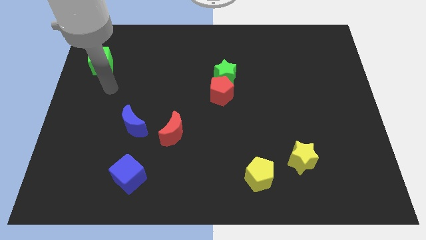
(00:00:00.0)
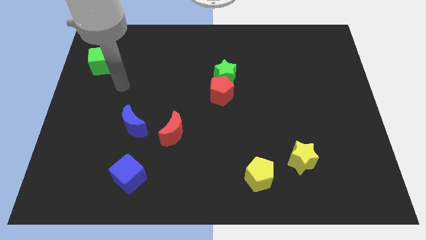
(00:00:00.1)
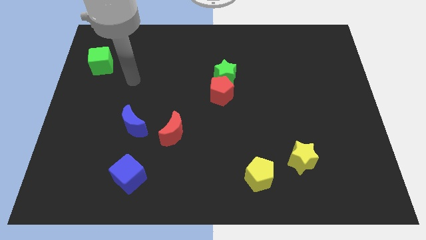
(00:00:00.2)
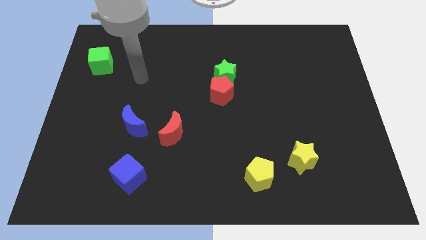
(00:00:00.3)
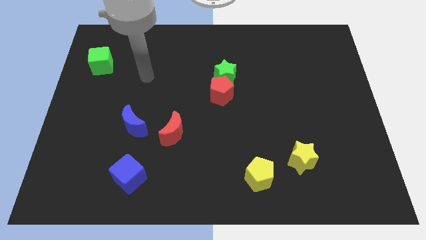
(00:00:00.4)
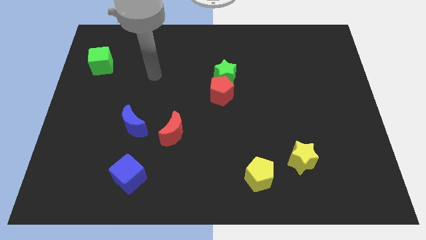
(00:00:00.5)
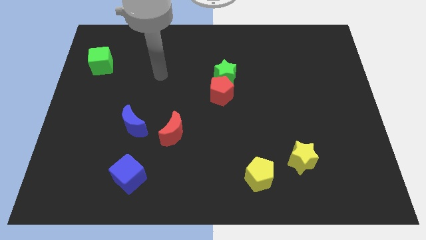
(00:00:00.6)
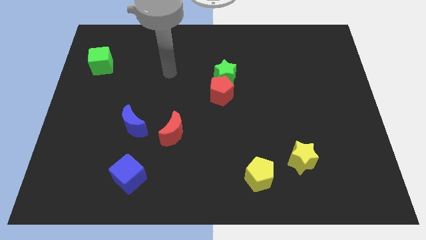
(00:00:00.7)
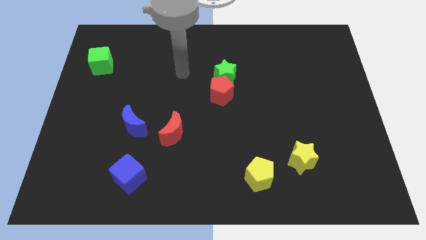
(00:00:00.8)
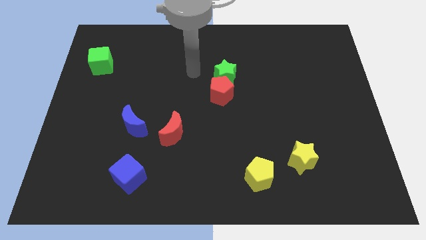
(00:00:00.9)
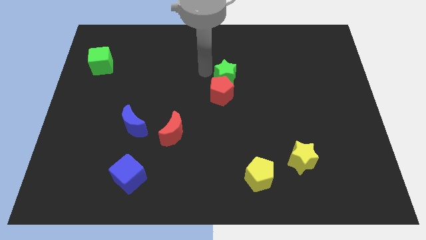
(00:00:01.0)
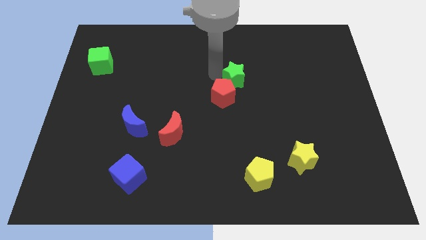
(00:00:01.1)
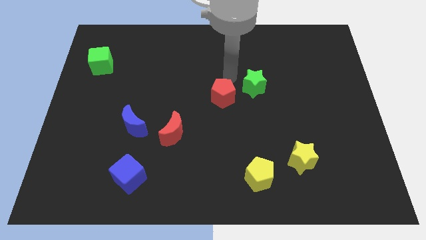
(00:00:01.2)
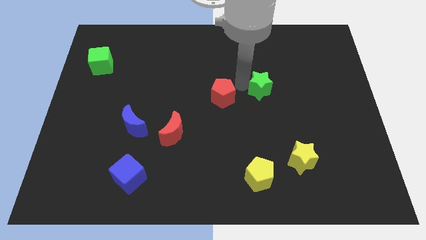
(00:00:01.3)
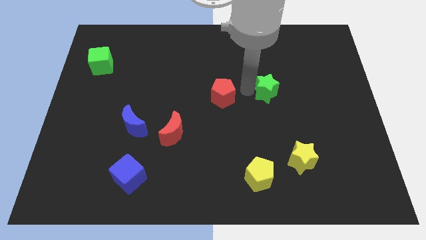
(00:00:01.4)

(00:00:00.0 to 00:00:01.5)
separate the red pentagon from the green star

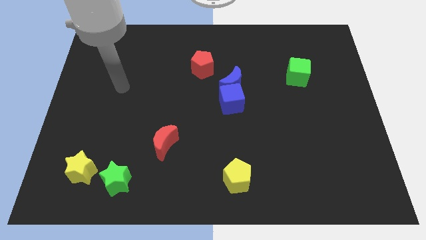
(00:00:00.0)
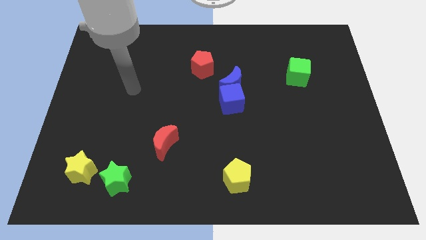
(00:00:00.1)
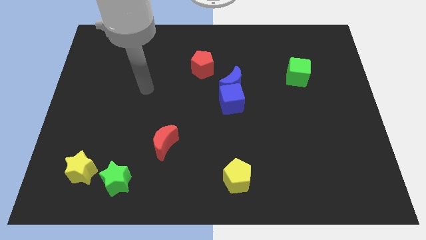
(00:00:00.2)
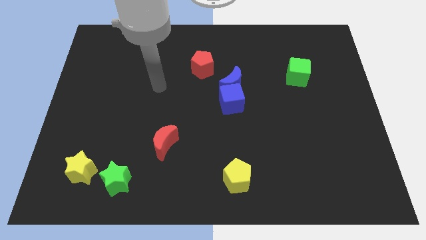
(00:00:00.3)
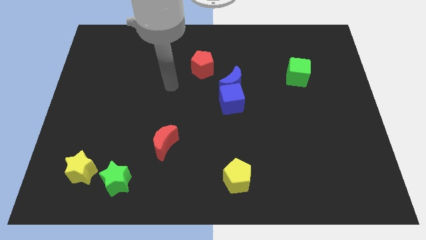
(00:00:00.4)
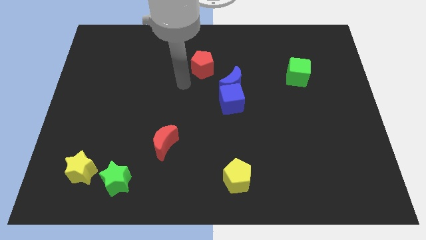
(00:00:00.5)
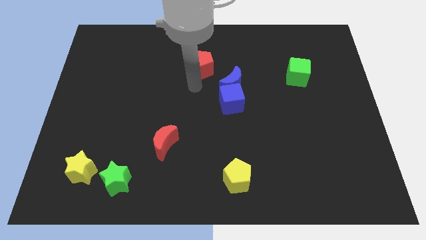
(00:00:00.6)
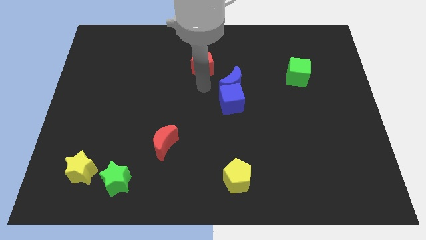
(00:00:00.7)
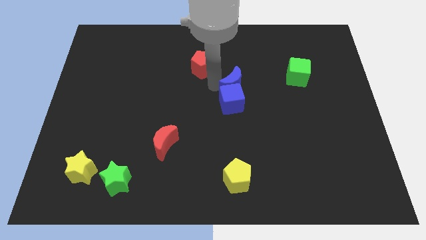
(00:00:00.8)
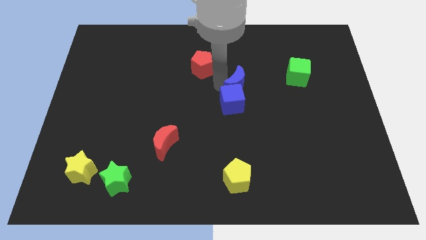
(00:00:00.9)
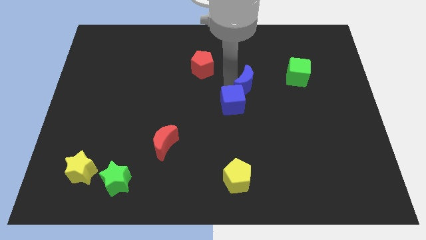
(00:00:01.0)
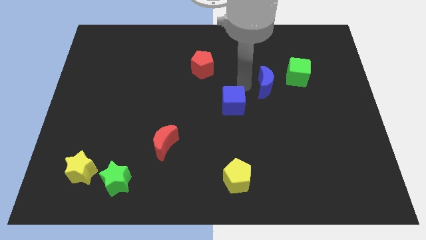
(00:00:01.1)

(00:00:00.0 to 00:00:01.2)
pull the blue cube apart from the blue moon

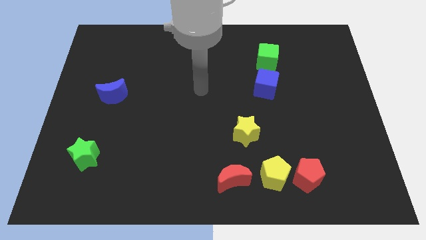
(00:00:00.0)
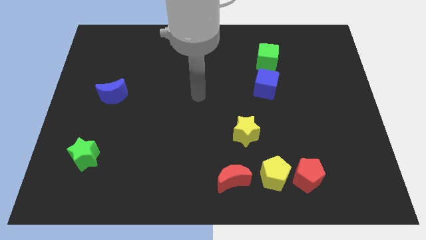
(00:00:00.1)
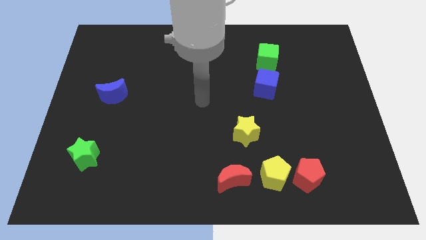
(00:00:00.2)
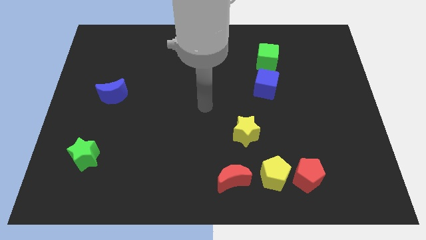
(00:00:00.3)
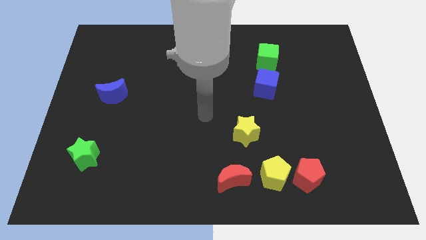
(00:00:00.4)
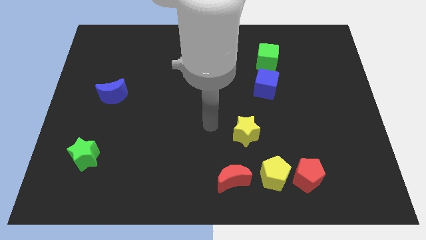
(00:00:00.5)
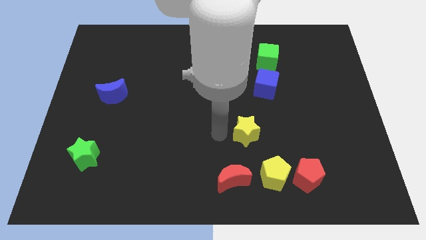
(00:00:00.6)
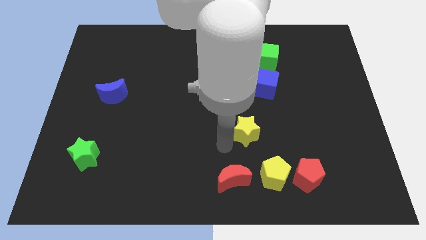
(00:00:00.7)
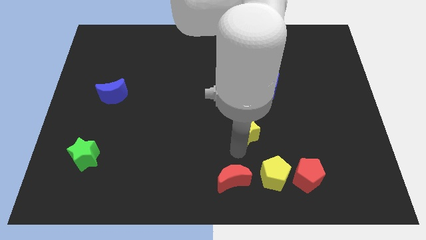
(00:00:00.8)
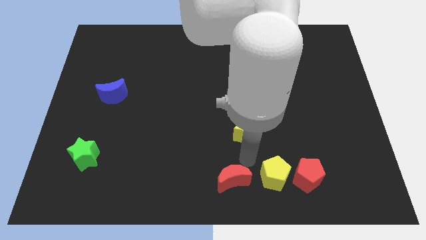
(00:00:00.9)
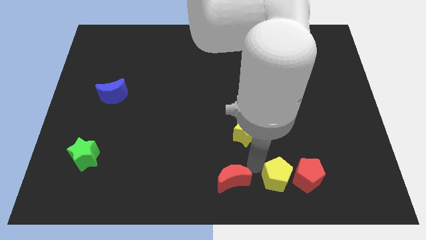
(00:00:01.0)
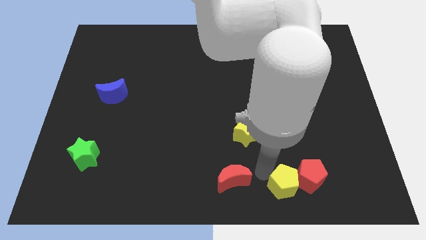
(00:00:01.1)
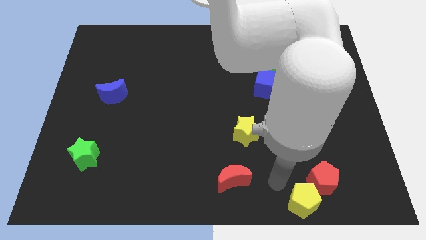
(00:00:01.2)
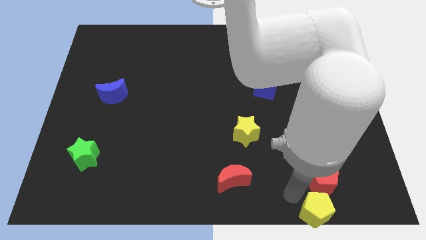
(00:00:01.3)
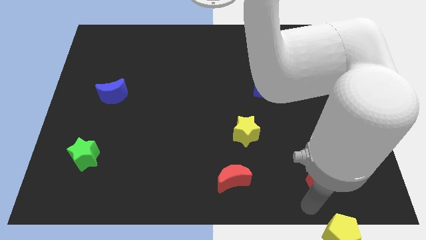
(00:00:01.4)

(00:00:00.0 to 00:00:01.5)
separate the red pentagon from the yellow pentagon

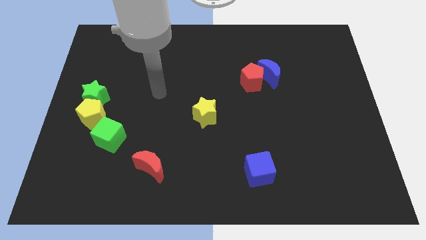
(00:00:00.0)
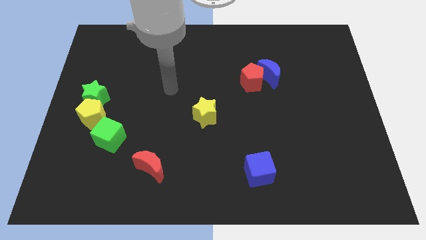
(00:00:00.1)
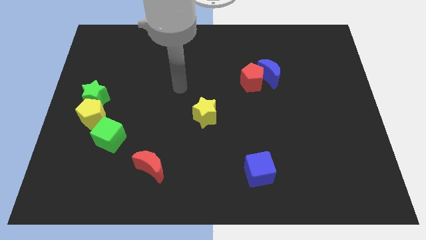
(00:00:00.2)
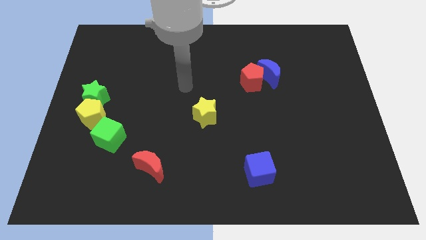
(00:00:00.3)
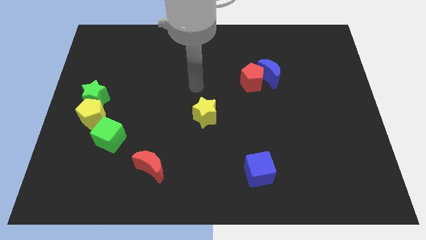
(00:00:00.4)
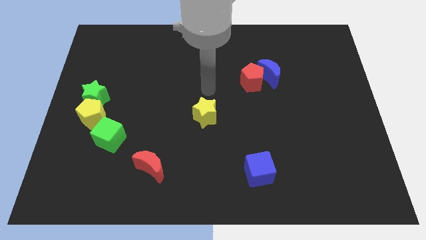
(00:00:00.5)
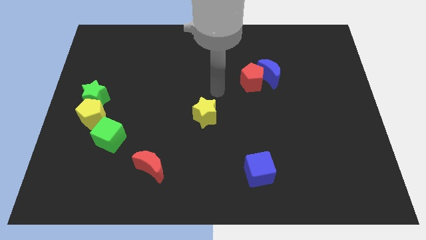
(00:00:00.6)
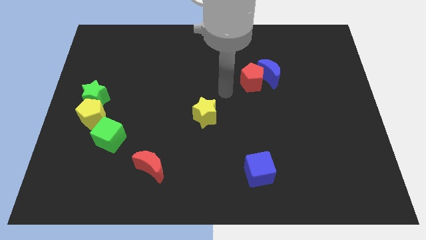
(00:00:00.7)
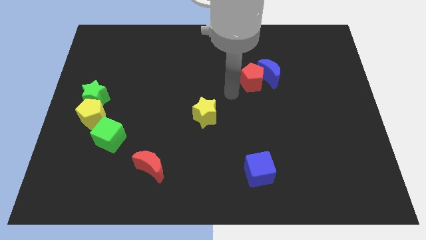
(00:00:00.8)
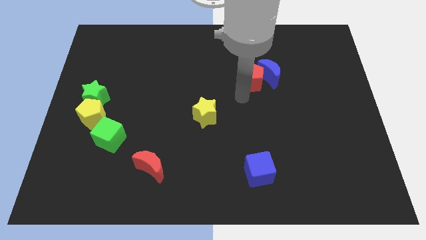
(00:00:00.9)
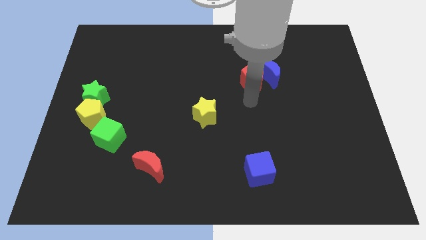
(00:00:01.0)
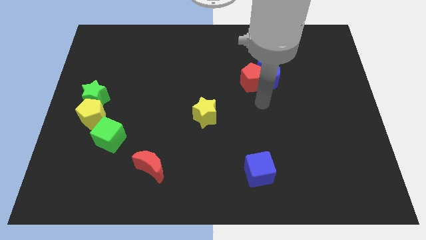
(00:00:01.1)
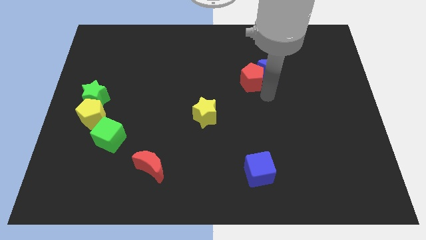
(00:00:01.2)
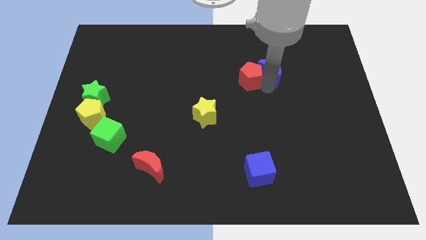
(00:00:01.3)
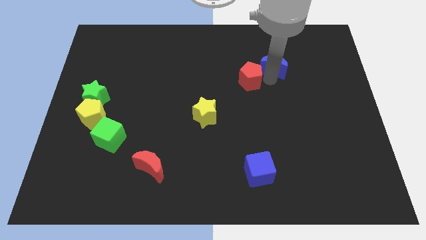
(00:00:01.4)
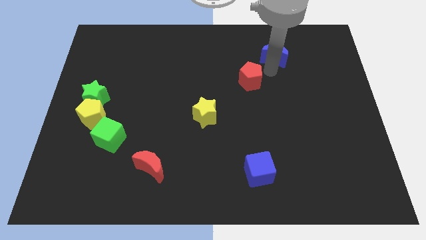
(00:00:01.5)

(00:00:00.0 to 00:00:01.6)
move the red pentagon away from the blue moon

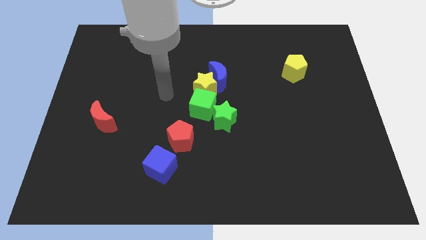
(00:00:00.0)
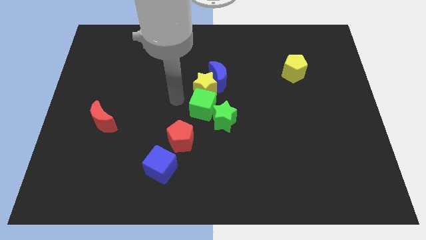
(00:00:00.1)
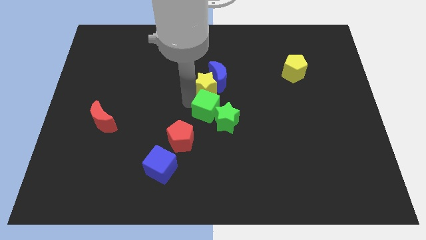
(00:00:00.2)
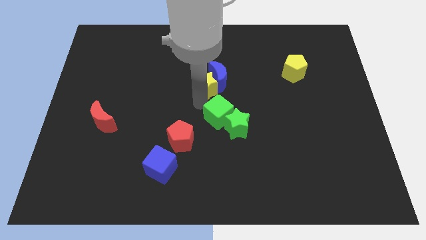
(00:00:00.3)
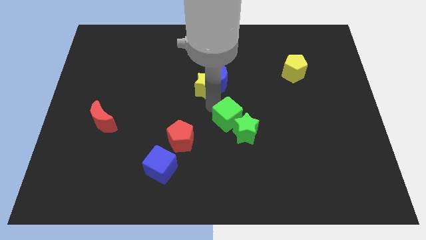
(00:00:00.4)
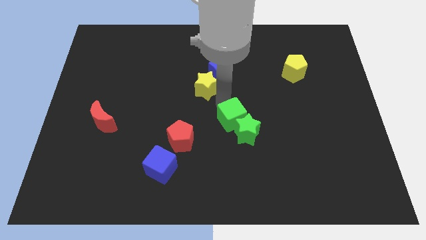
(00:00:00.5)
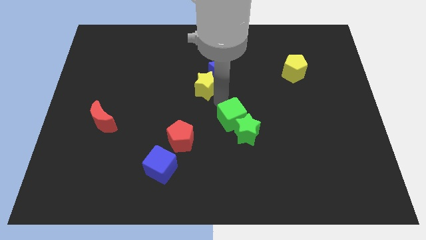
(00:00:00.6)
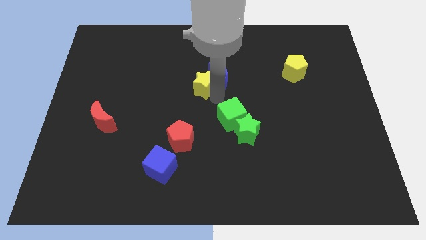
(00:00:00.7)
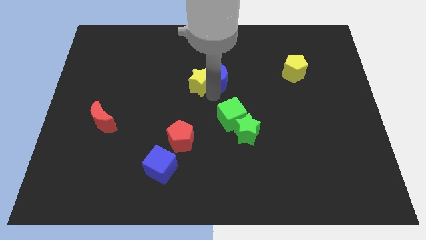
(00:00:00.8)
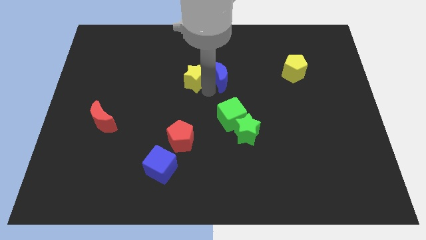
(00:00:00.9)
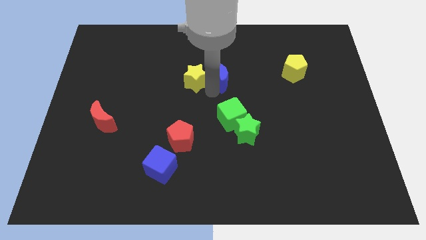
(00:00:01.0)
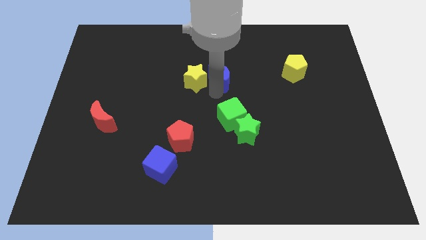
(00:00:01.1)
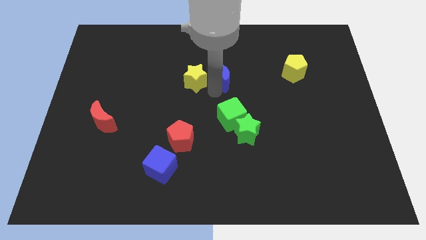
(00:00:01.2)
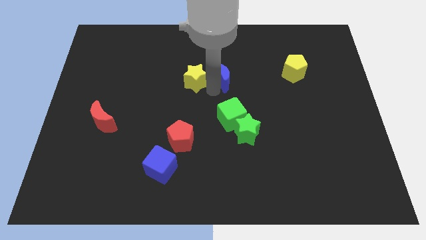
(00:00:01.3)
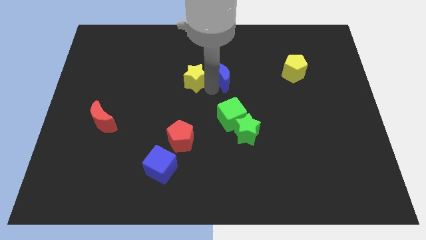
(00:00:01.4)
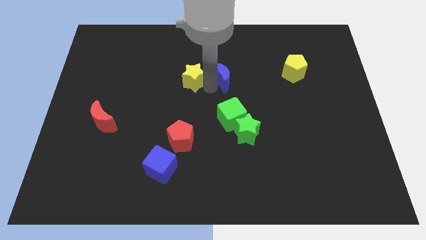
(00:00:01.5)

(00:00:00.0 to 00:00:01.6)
move the yellow star away from the blue moon and green cube

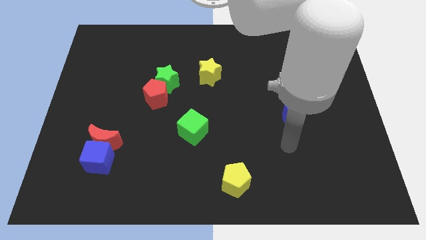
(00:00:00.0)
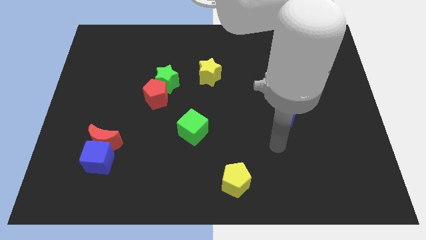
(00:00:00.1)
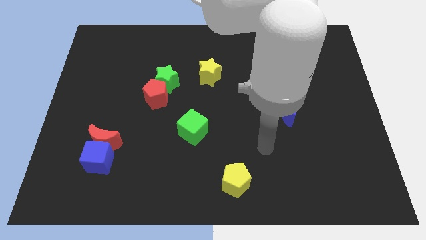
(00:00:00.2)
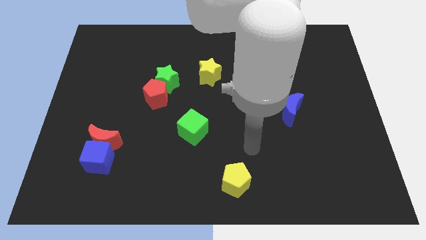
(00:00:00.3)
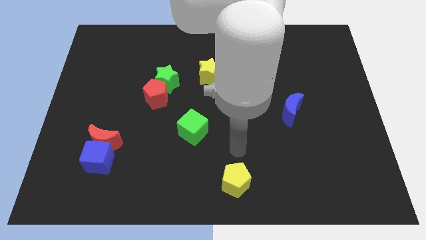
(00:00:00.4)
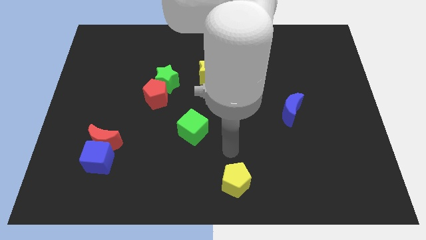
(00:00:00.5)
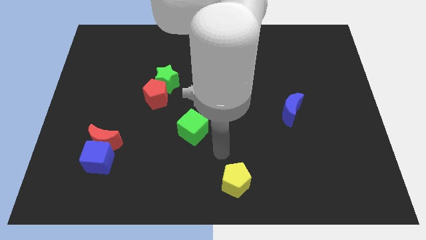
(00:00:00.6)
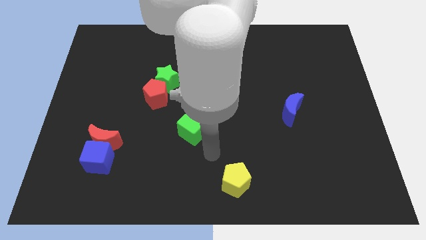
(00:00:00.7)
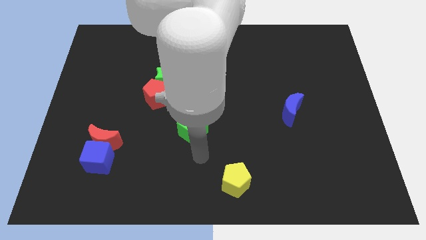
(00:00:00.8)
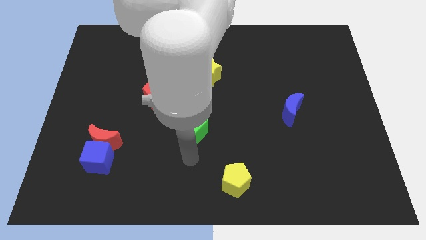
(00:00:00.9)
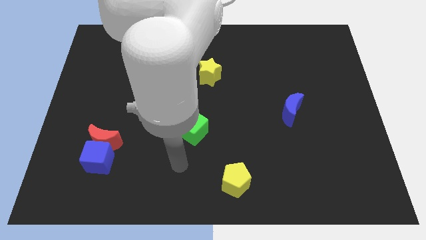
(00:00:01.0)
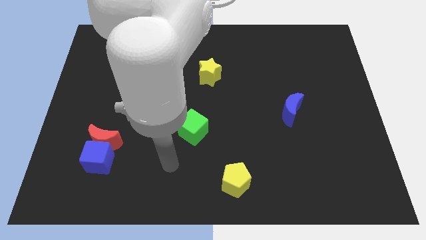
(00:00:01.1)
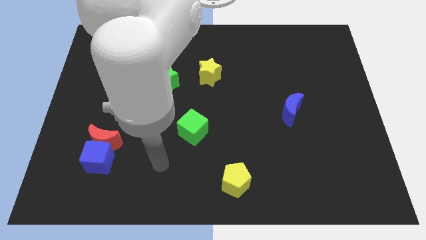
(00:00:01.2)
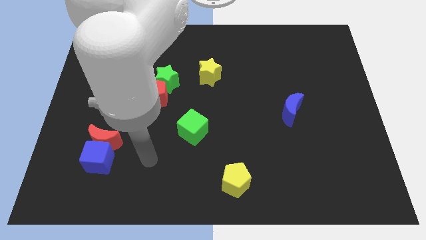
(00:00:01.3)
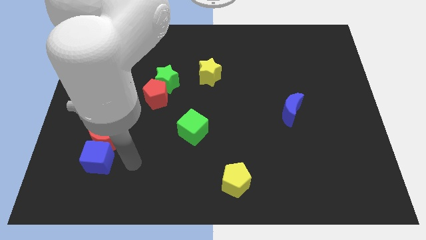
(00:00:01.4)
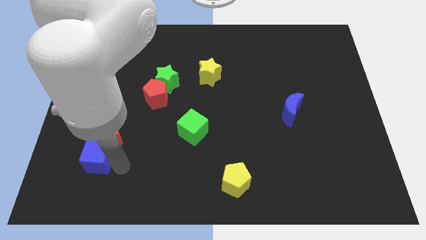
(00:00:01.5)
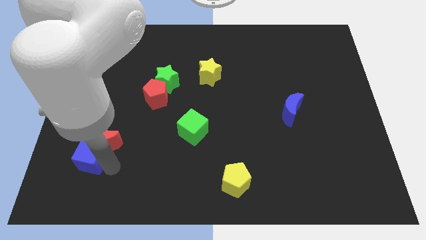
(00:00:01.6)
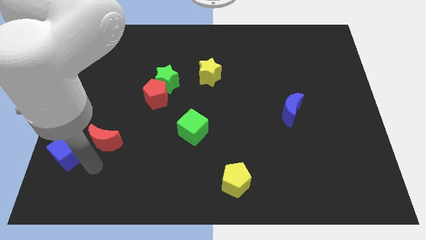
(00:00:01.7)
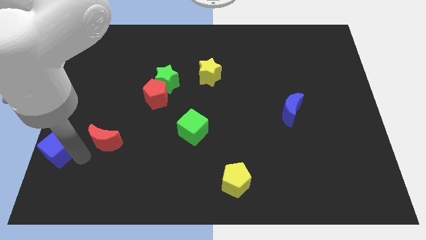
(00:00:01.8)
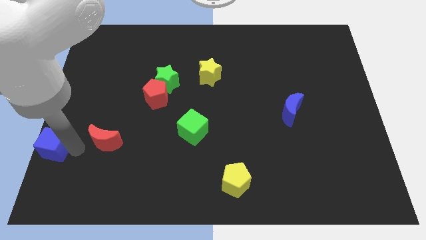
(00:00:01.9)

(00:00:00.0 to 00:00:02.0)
move the red moon away from the blue cube
